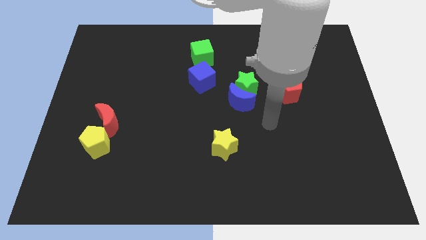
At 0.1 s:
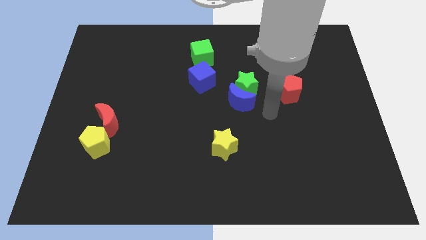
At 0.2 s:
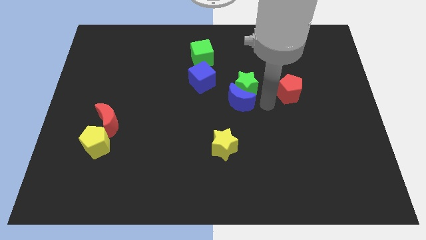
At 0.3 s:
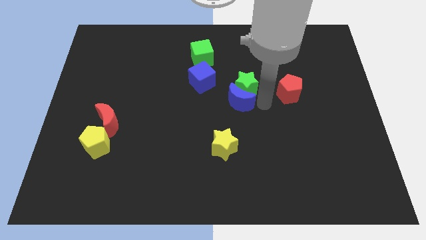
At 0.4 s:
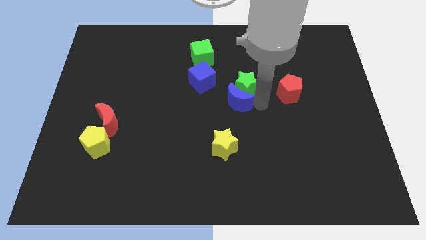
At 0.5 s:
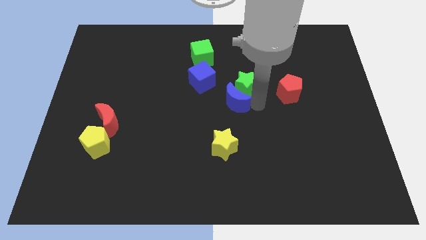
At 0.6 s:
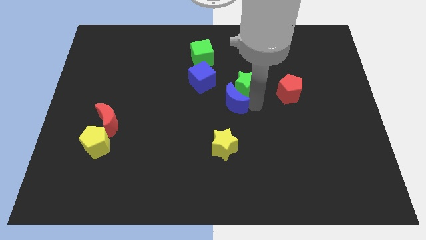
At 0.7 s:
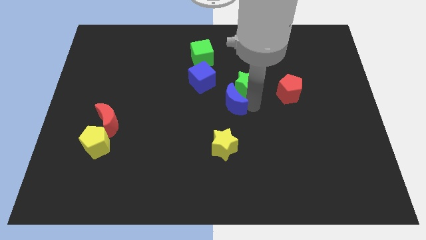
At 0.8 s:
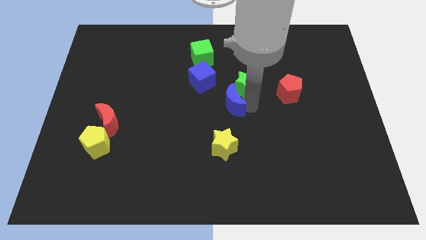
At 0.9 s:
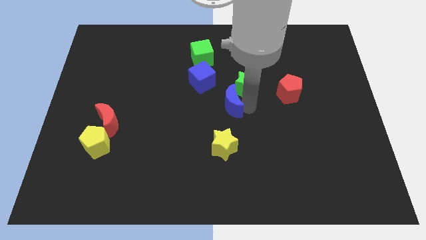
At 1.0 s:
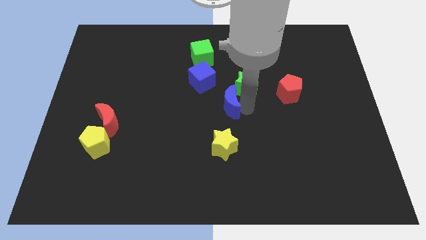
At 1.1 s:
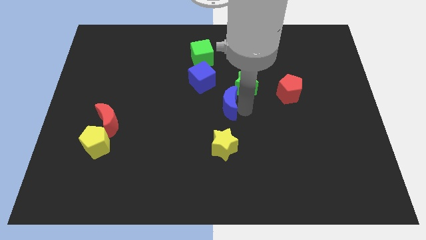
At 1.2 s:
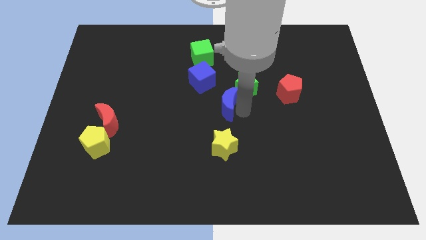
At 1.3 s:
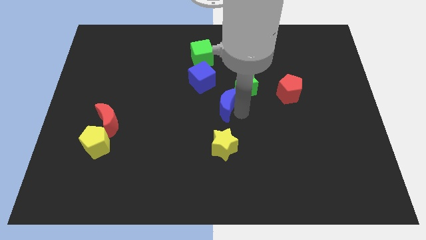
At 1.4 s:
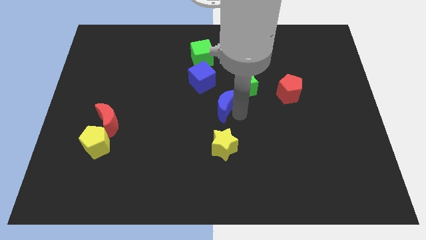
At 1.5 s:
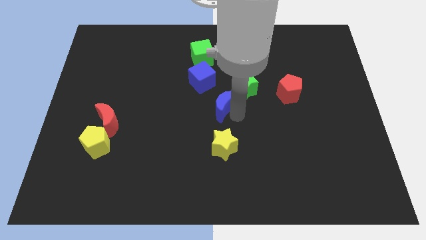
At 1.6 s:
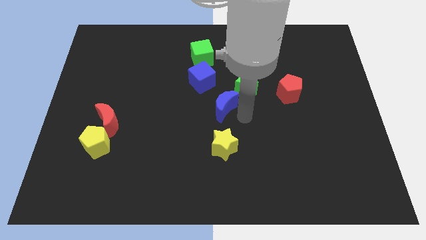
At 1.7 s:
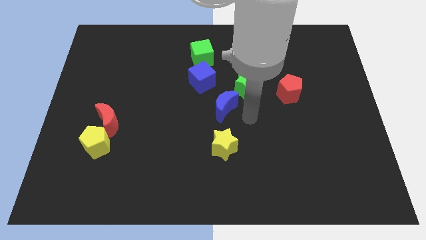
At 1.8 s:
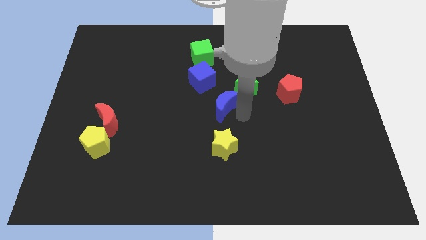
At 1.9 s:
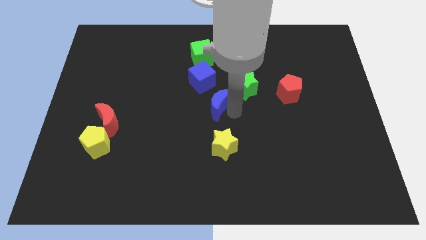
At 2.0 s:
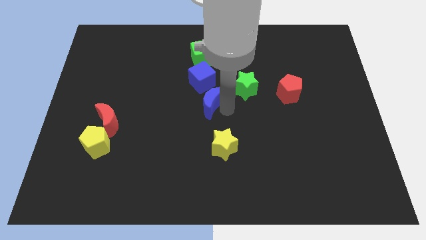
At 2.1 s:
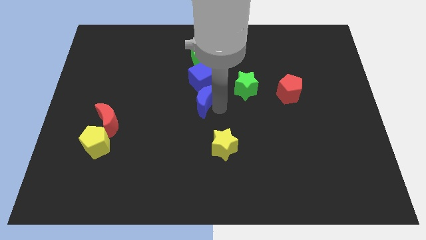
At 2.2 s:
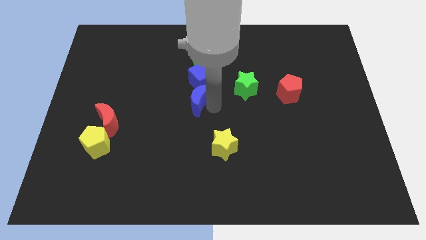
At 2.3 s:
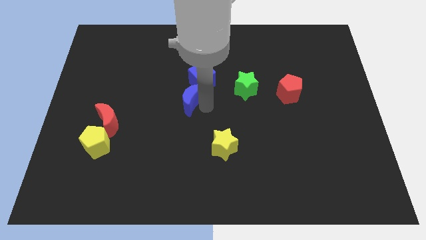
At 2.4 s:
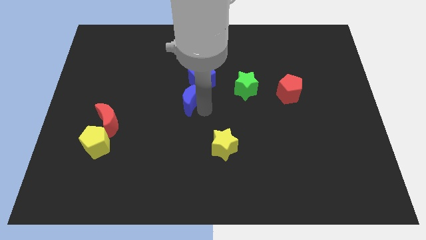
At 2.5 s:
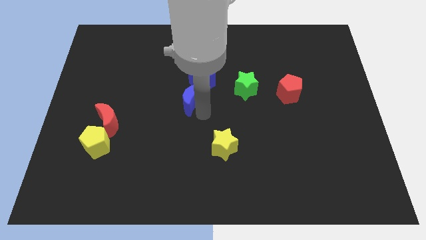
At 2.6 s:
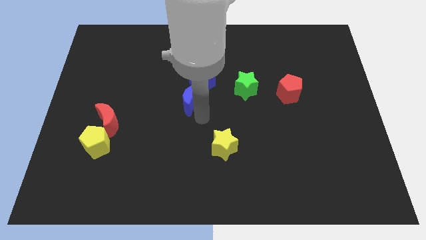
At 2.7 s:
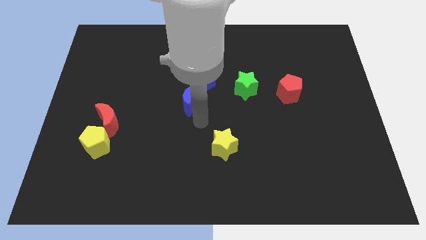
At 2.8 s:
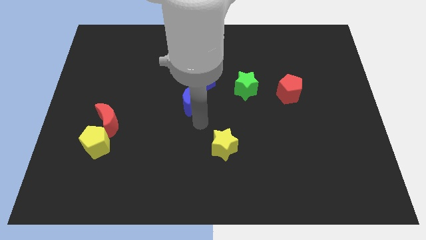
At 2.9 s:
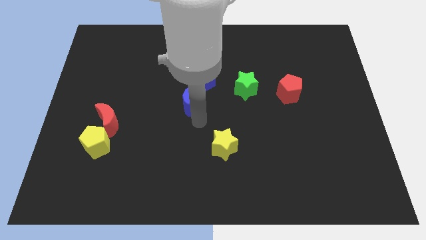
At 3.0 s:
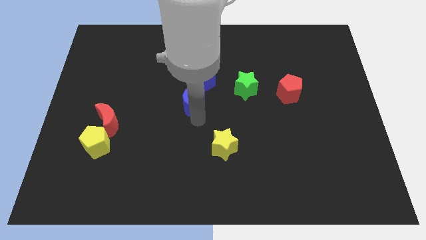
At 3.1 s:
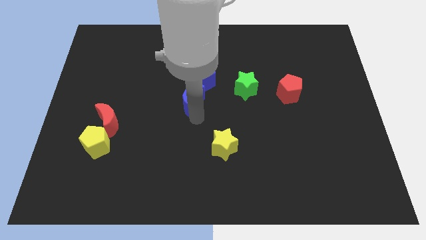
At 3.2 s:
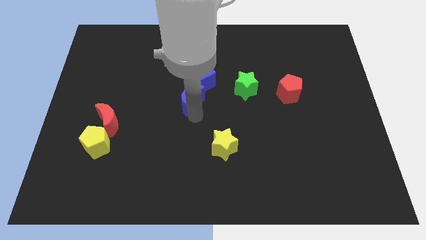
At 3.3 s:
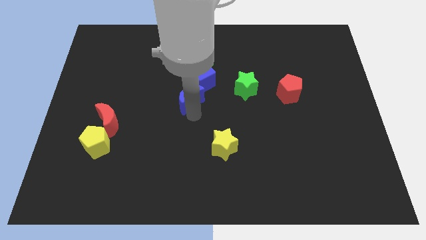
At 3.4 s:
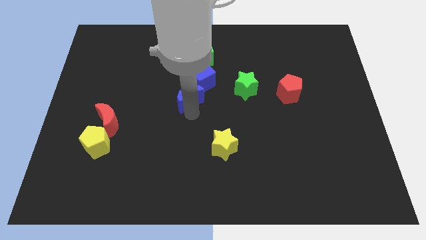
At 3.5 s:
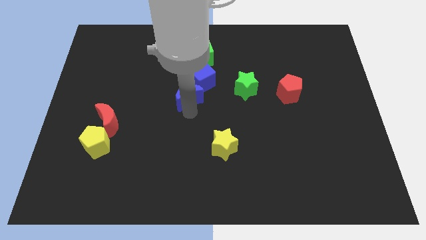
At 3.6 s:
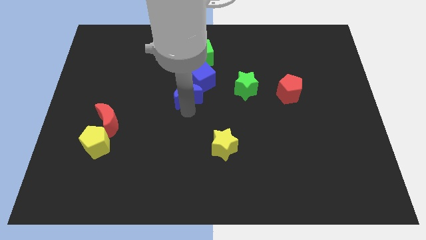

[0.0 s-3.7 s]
slide the blue moon up and then left somewhat

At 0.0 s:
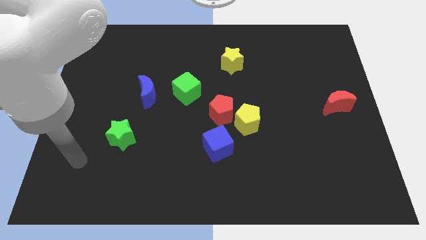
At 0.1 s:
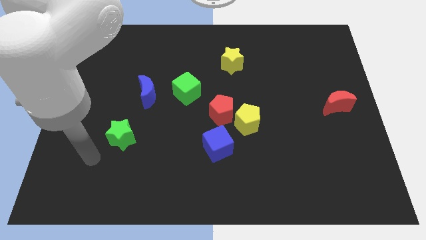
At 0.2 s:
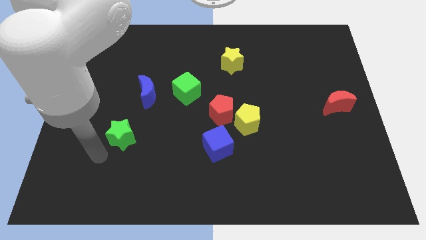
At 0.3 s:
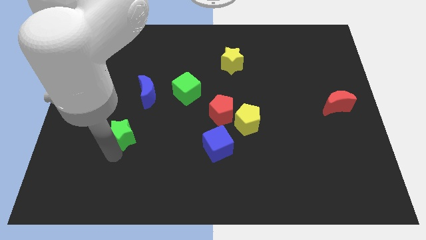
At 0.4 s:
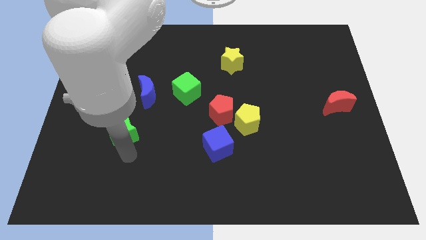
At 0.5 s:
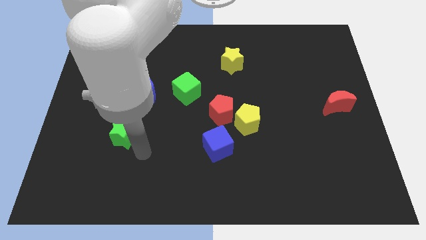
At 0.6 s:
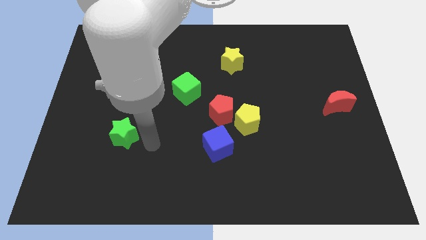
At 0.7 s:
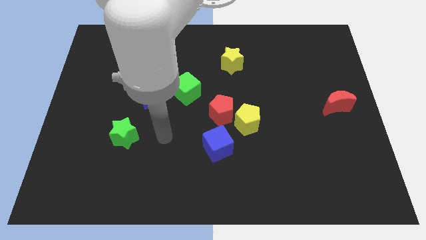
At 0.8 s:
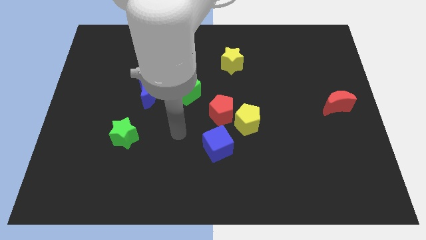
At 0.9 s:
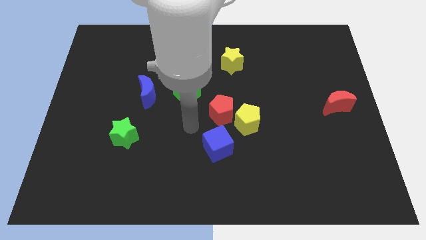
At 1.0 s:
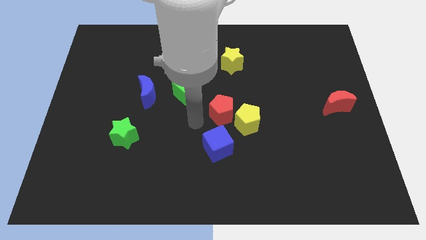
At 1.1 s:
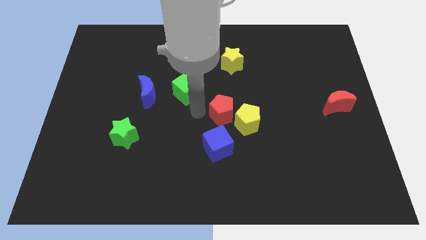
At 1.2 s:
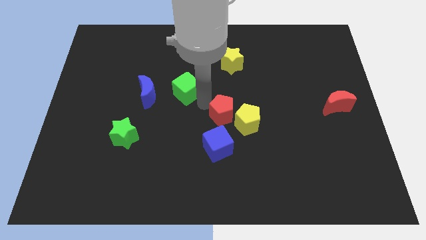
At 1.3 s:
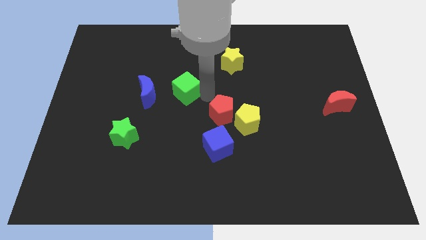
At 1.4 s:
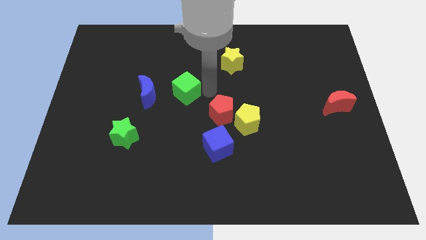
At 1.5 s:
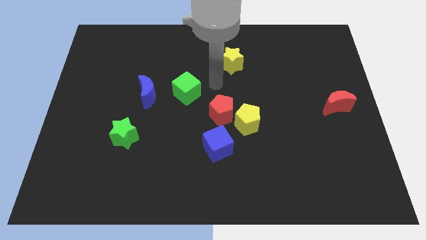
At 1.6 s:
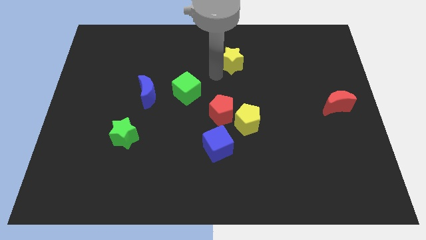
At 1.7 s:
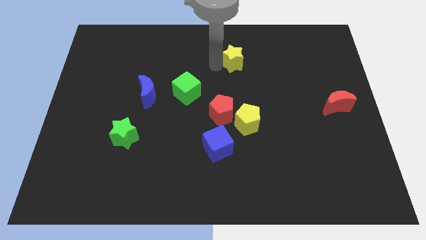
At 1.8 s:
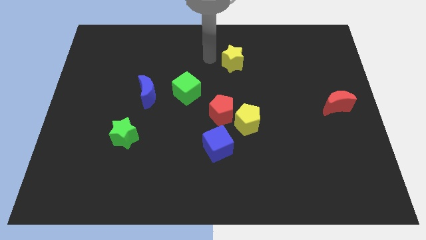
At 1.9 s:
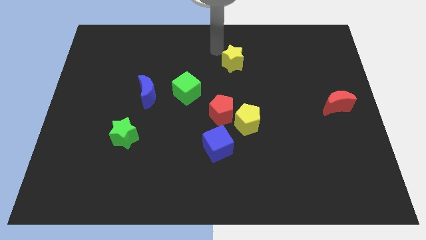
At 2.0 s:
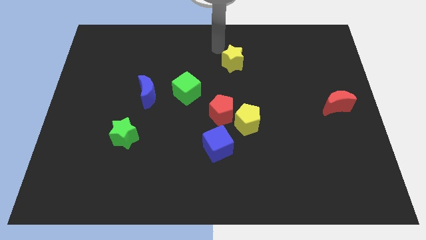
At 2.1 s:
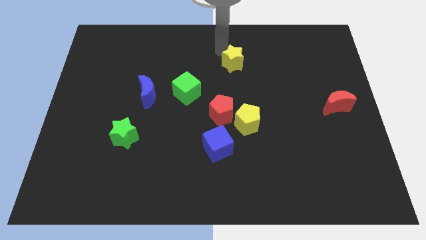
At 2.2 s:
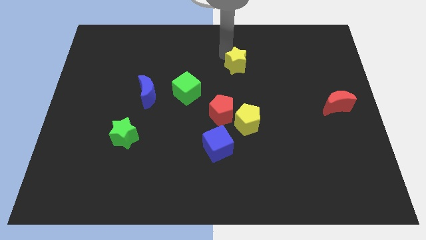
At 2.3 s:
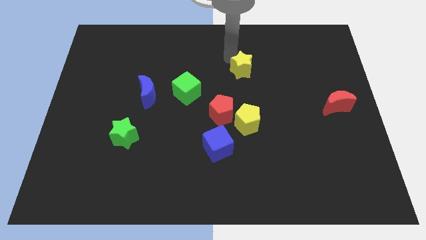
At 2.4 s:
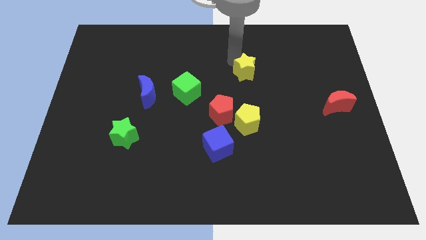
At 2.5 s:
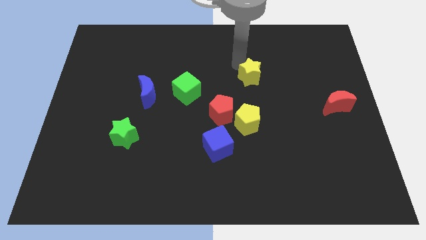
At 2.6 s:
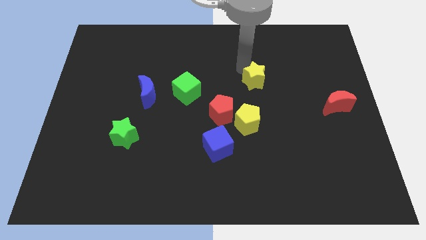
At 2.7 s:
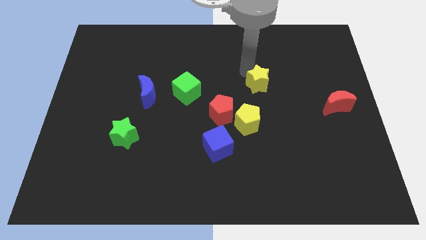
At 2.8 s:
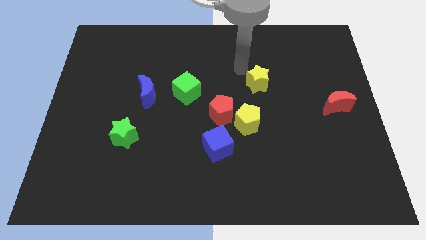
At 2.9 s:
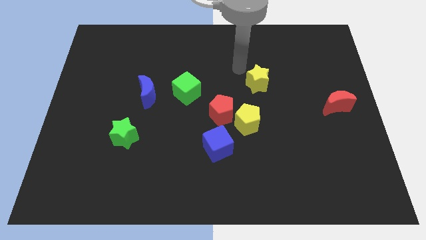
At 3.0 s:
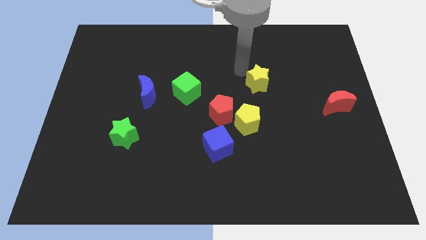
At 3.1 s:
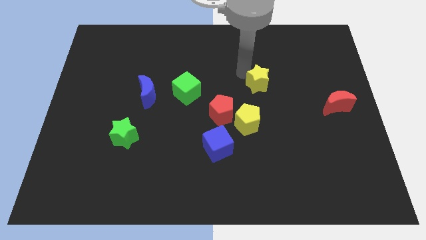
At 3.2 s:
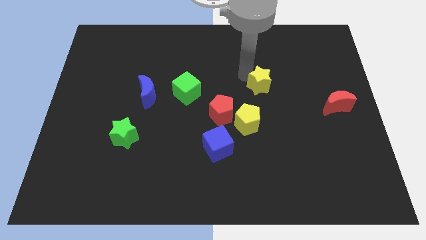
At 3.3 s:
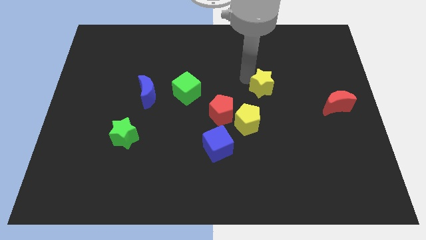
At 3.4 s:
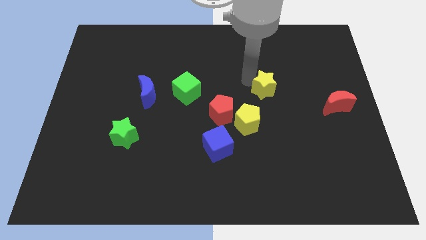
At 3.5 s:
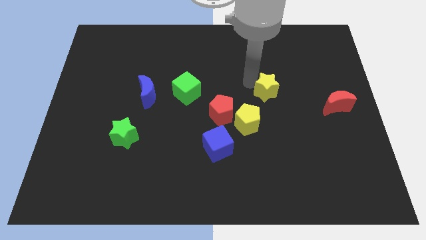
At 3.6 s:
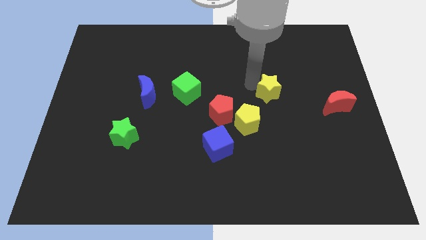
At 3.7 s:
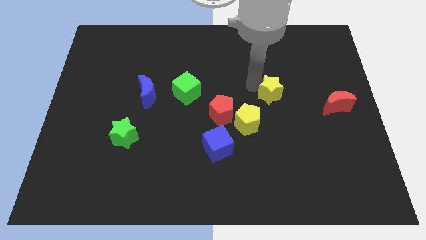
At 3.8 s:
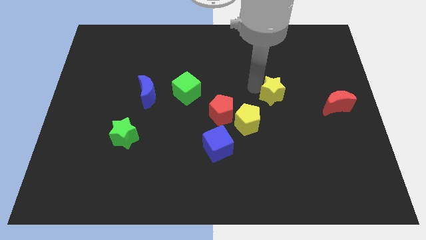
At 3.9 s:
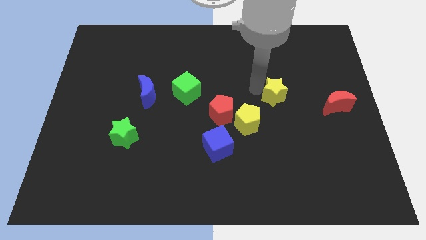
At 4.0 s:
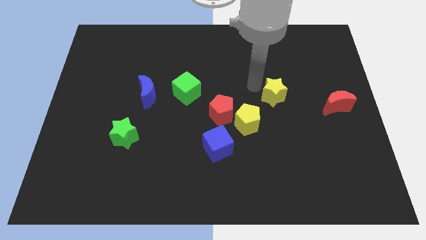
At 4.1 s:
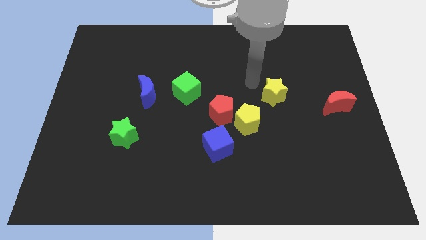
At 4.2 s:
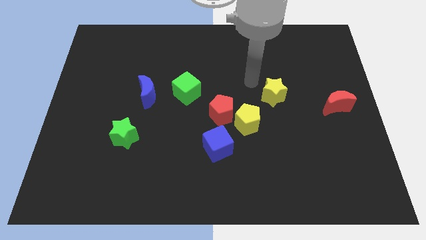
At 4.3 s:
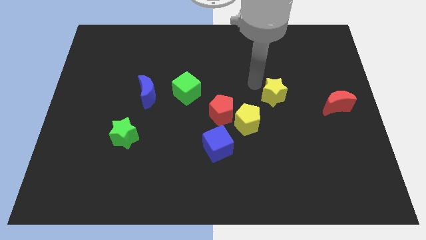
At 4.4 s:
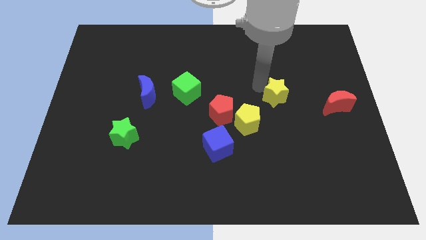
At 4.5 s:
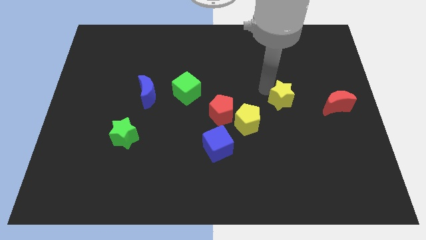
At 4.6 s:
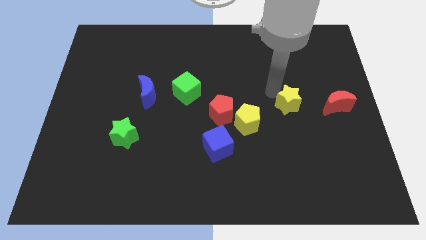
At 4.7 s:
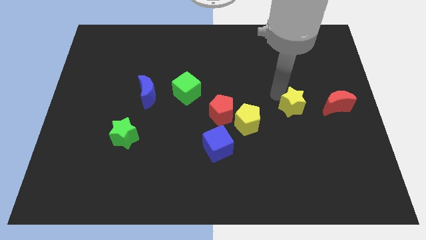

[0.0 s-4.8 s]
push the yellow star downwards and then right
